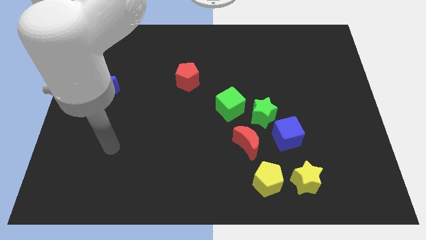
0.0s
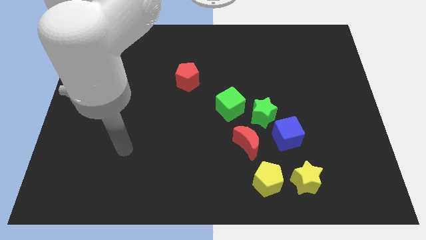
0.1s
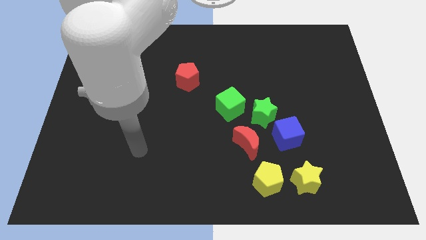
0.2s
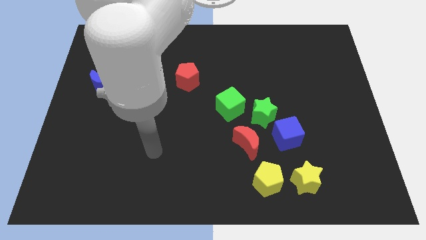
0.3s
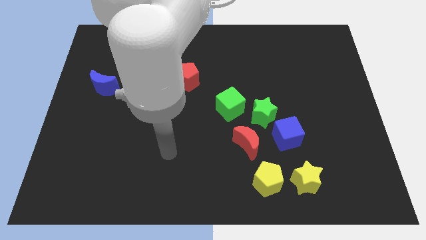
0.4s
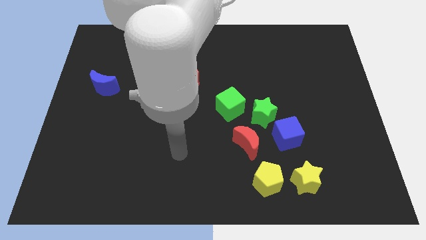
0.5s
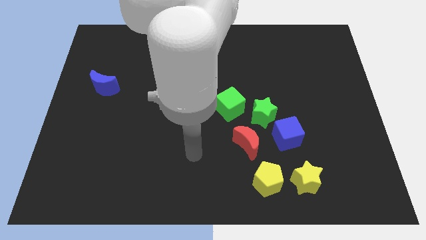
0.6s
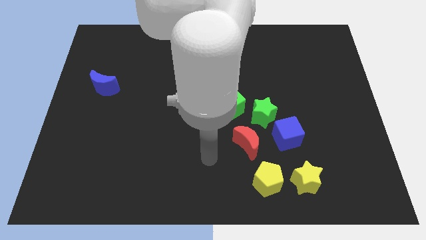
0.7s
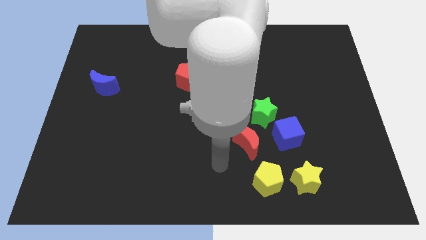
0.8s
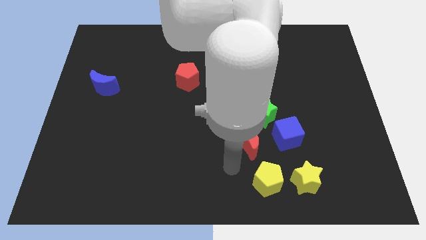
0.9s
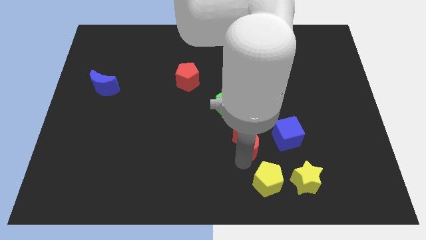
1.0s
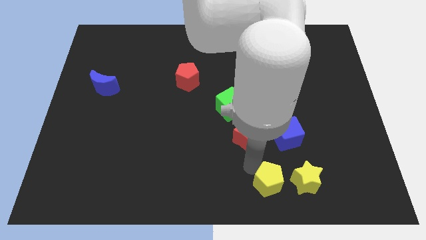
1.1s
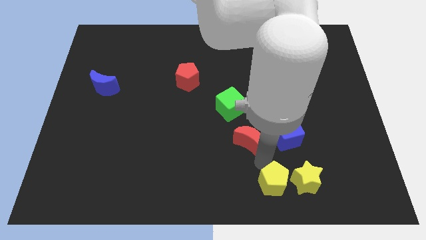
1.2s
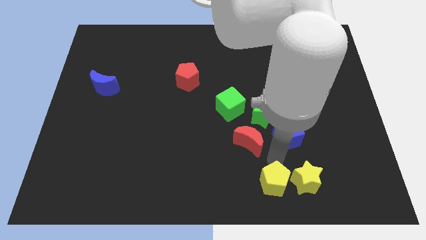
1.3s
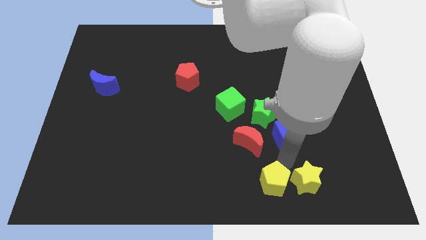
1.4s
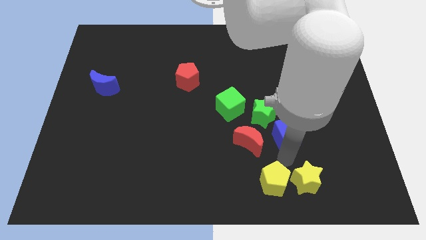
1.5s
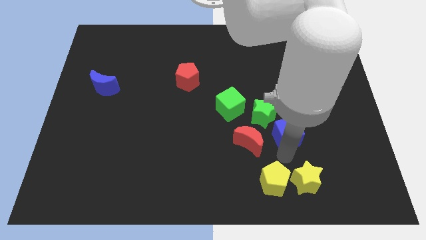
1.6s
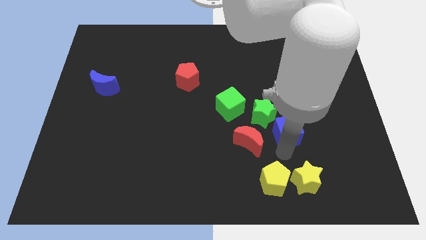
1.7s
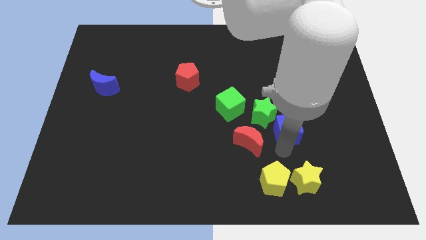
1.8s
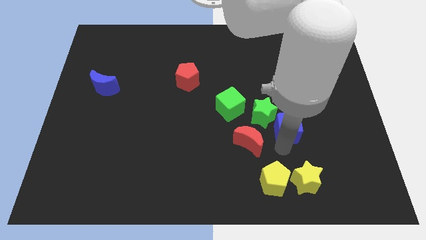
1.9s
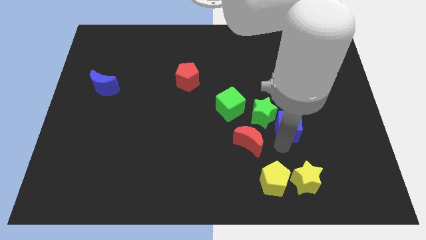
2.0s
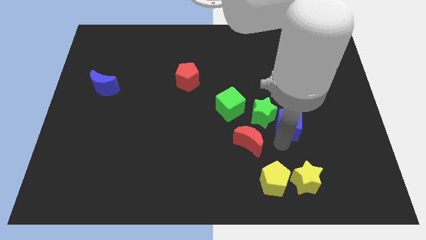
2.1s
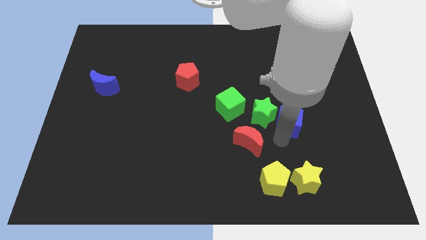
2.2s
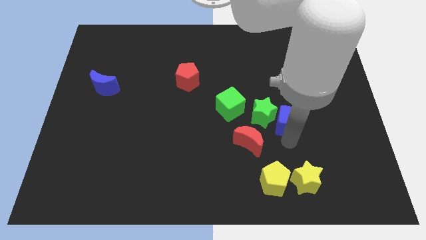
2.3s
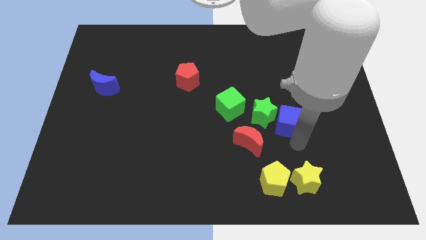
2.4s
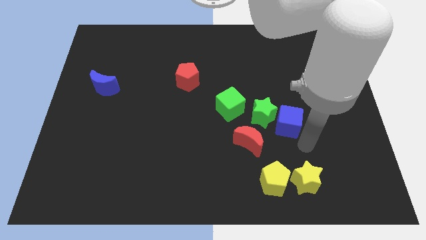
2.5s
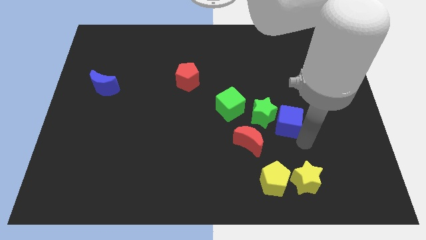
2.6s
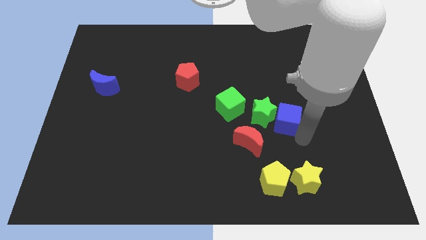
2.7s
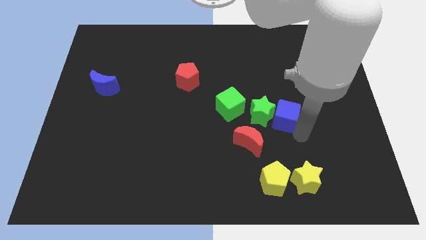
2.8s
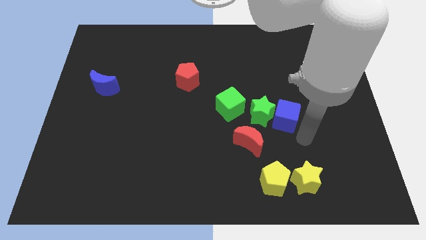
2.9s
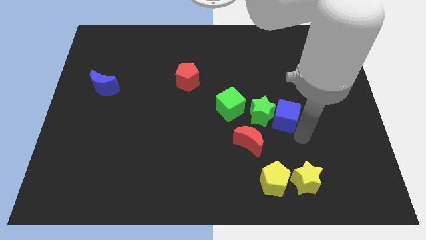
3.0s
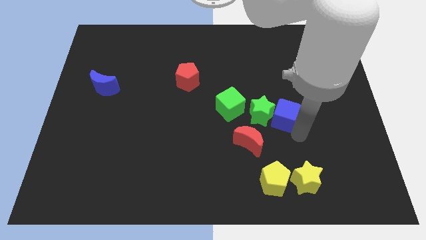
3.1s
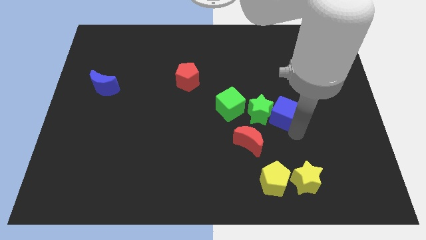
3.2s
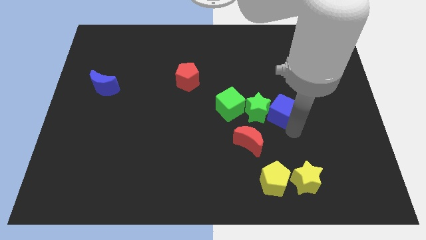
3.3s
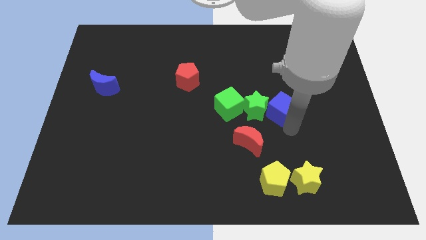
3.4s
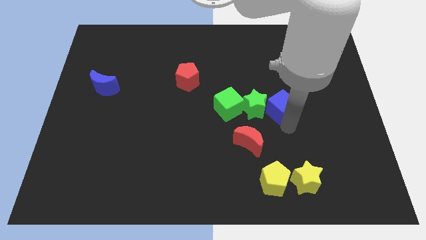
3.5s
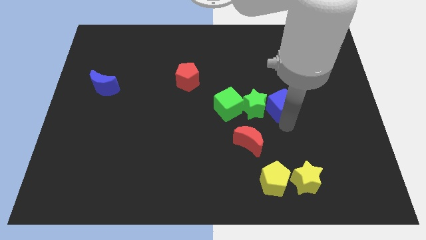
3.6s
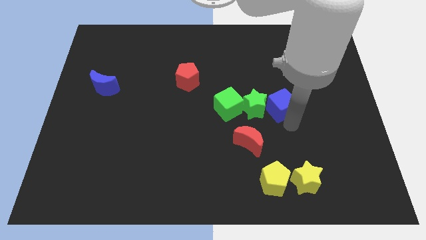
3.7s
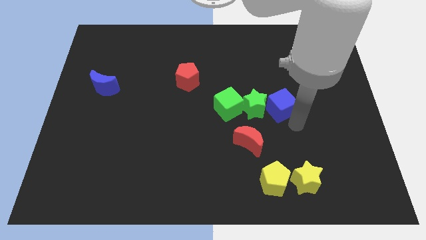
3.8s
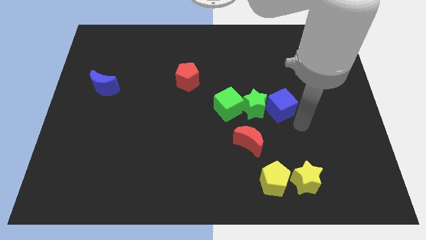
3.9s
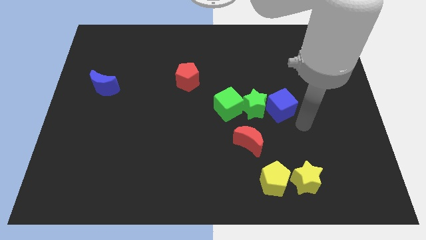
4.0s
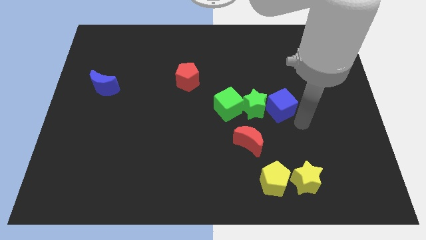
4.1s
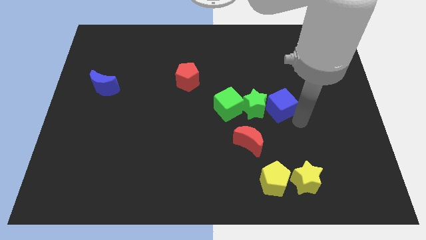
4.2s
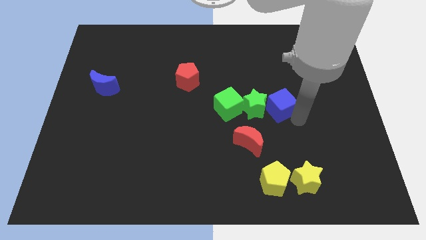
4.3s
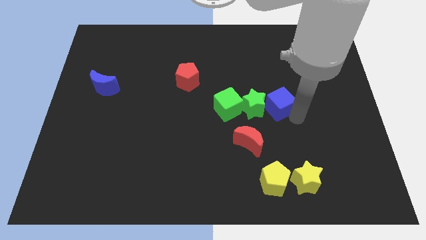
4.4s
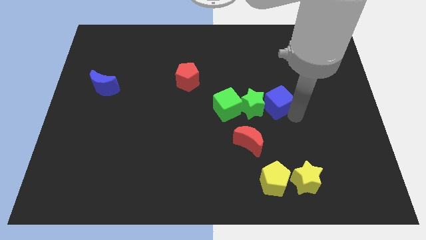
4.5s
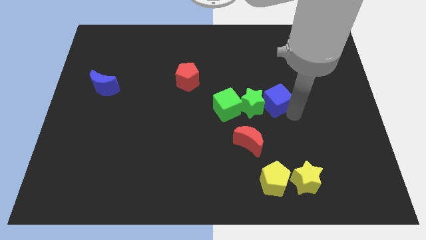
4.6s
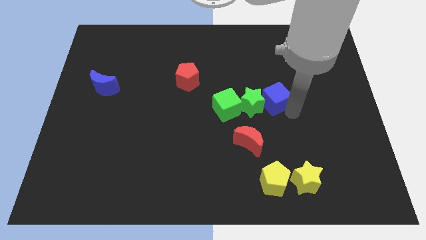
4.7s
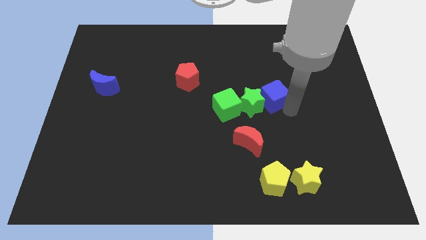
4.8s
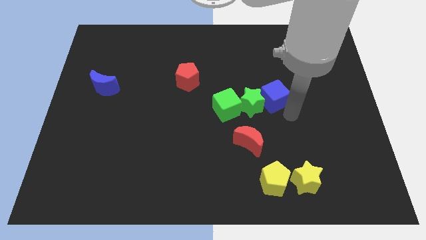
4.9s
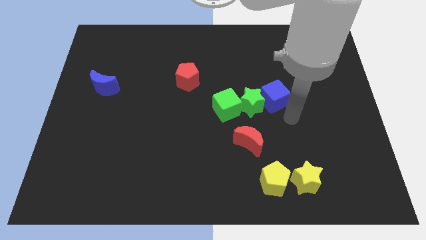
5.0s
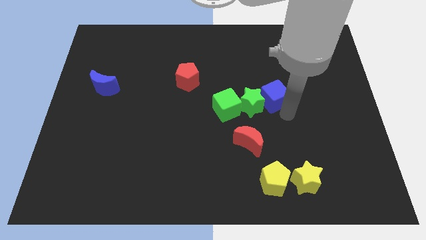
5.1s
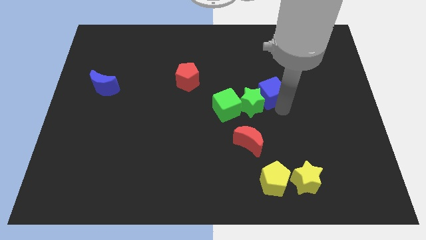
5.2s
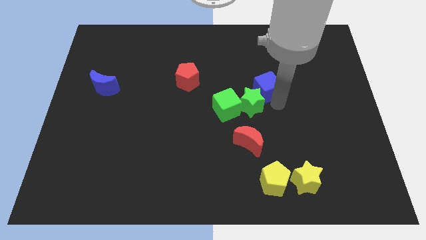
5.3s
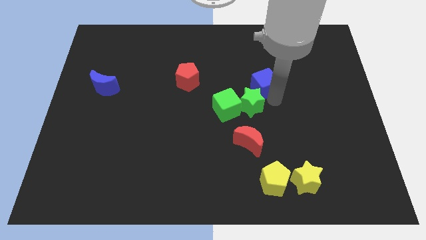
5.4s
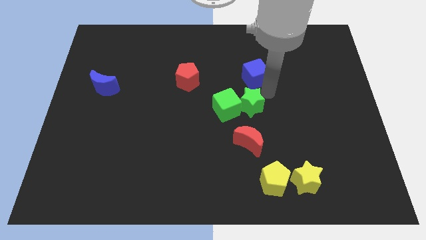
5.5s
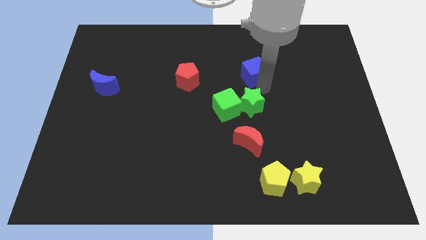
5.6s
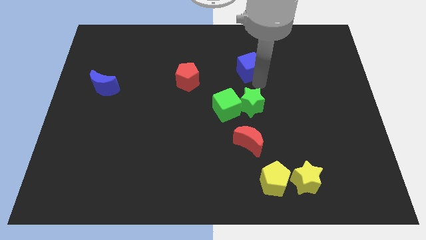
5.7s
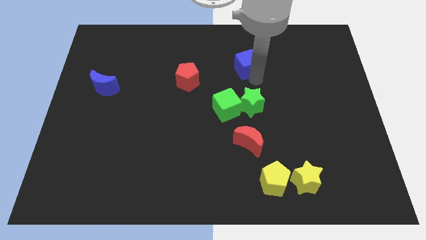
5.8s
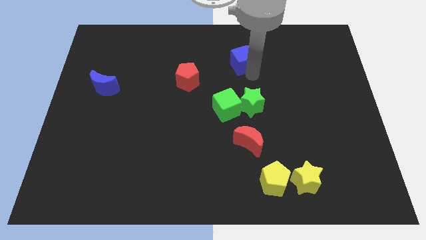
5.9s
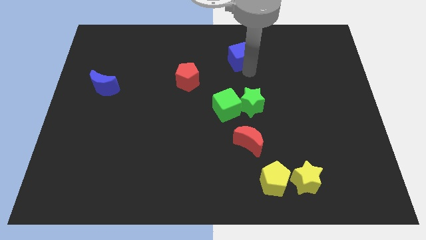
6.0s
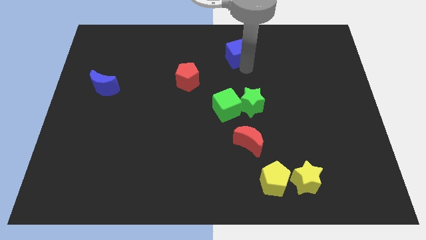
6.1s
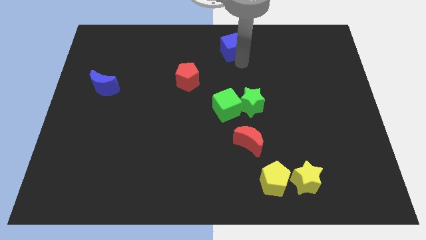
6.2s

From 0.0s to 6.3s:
slide the blue cube to the towards your base
